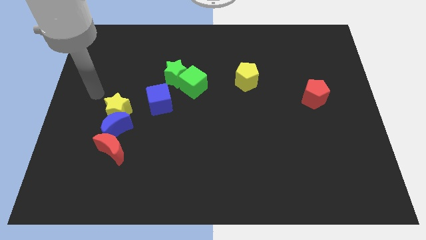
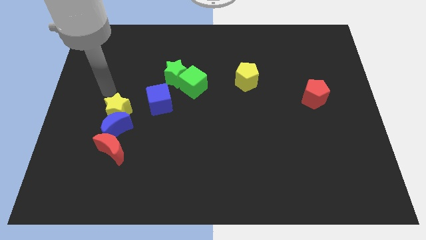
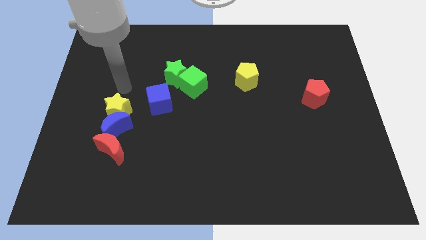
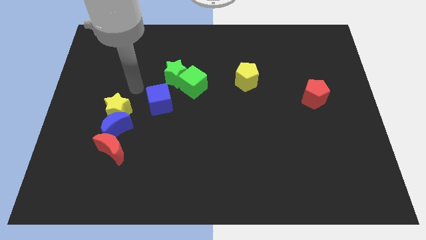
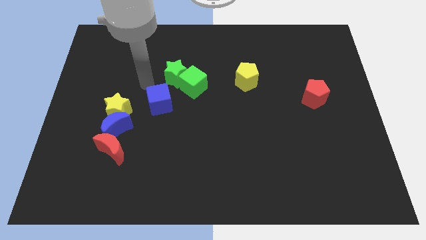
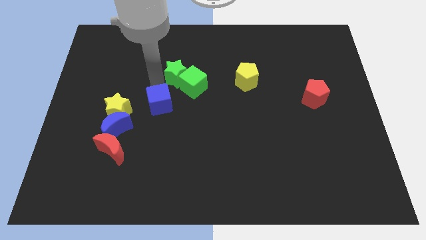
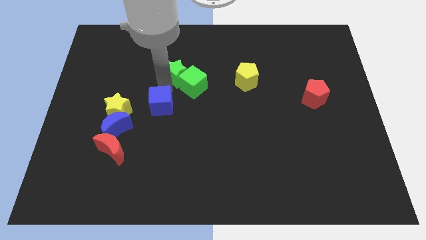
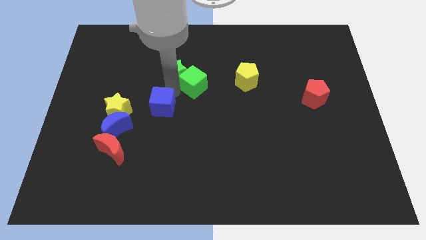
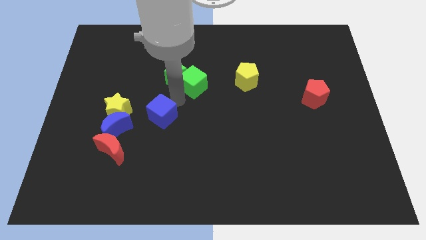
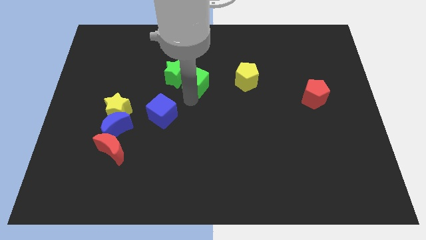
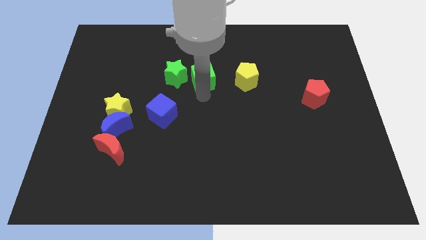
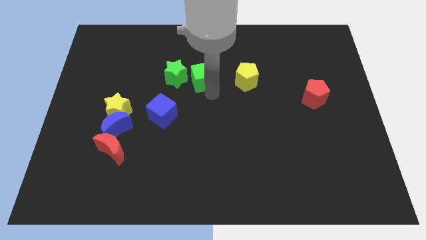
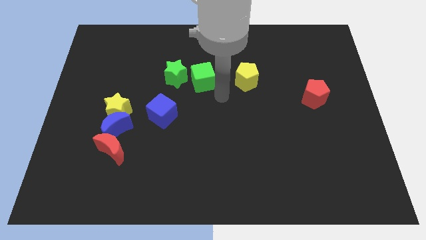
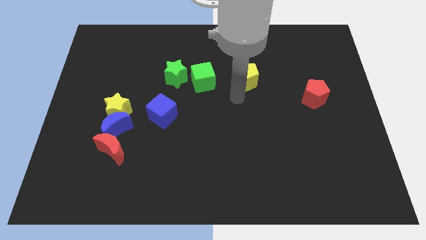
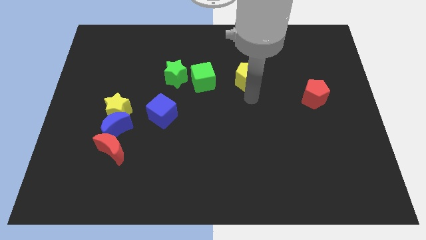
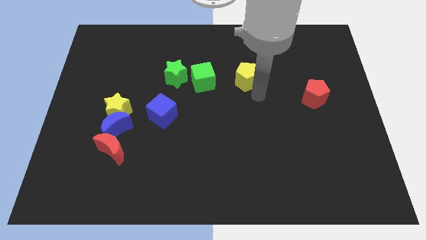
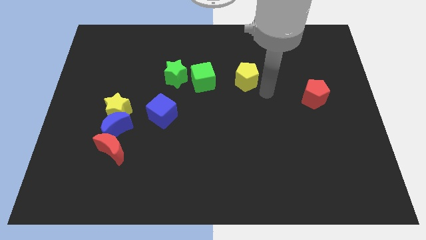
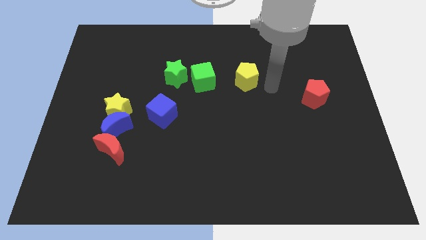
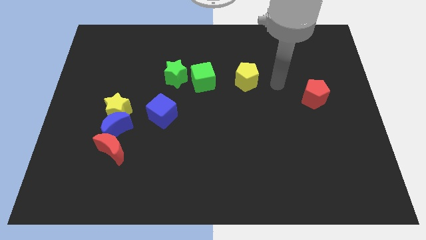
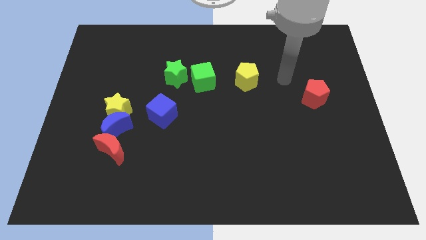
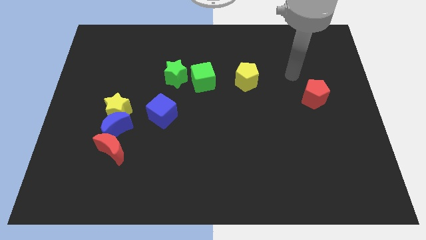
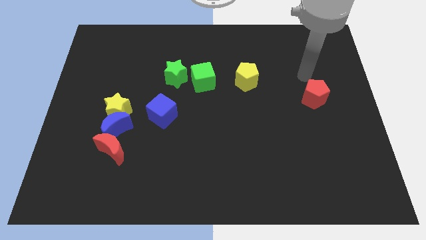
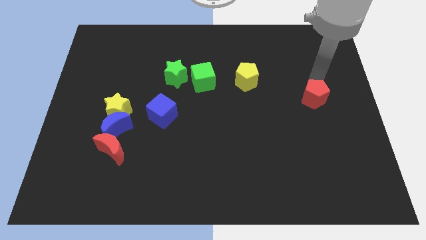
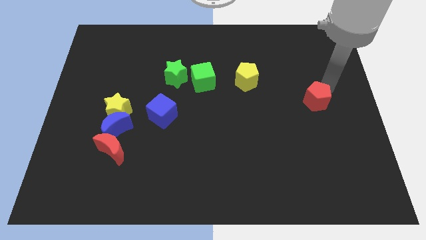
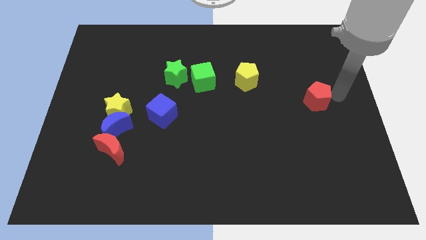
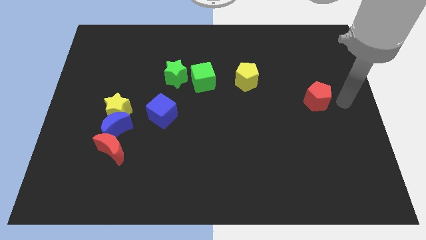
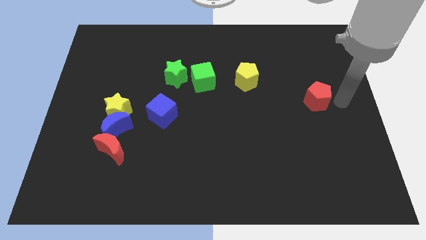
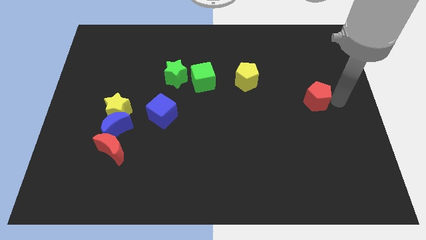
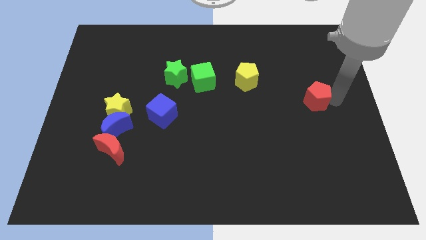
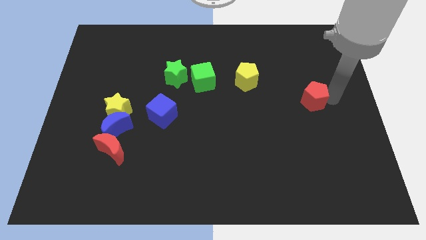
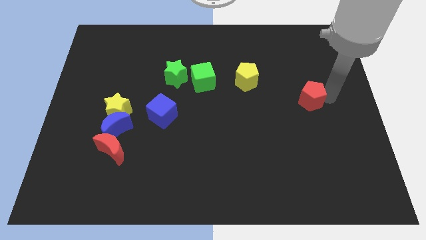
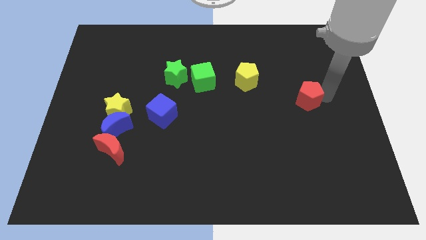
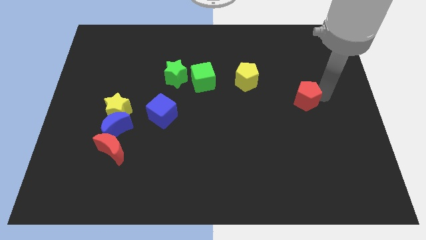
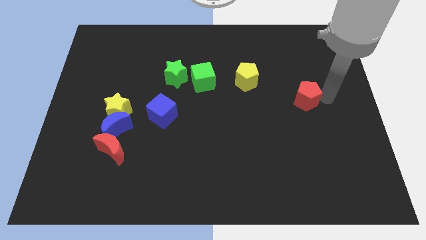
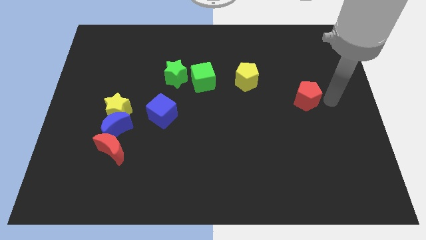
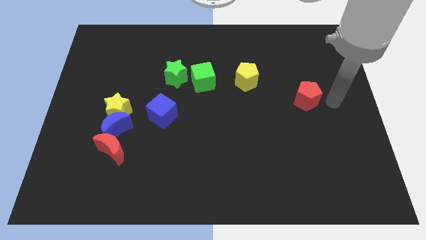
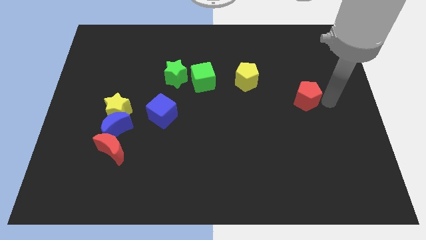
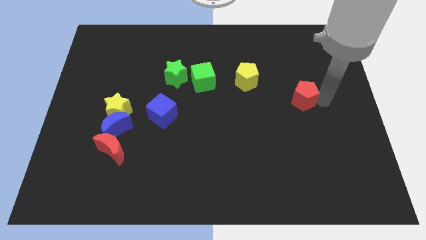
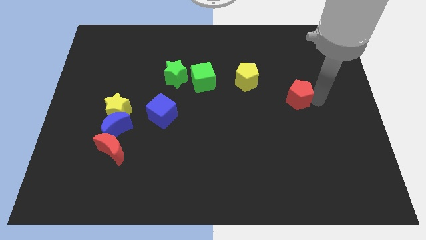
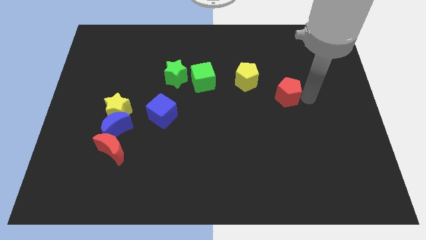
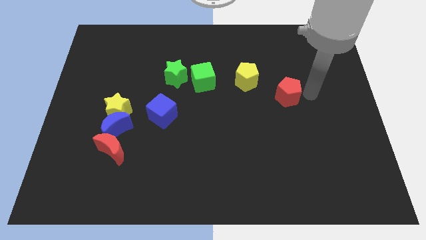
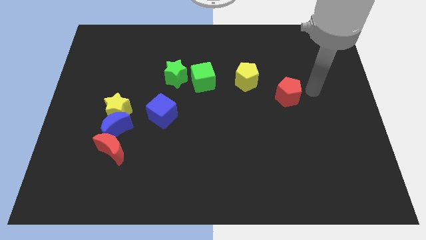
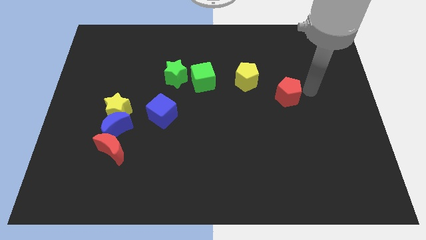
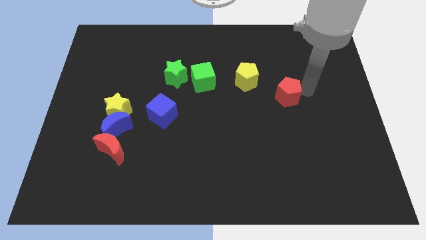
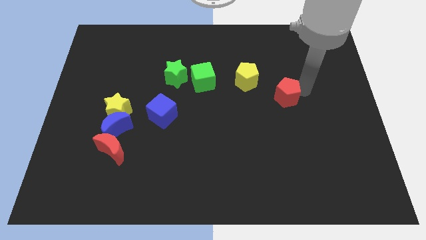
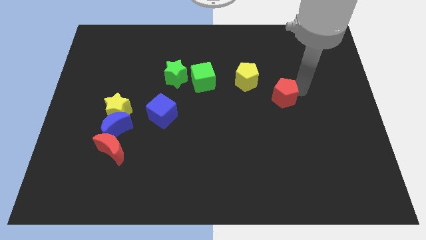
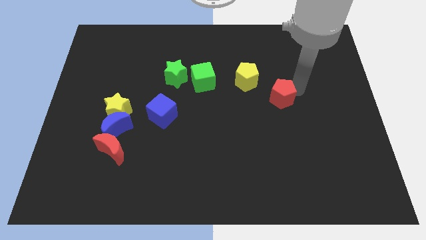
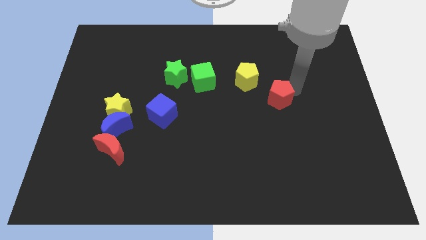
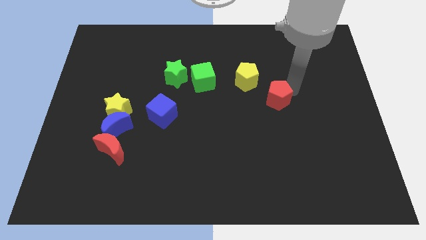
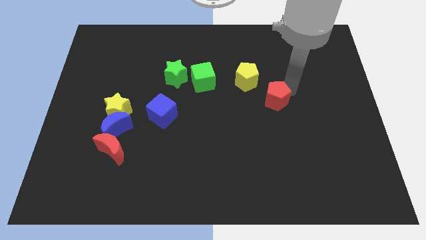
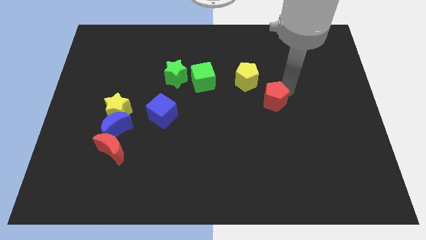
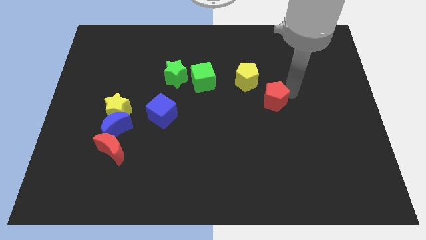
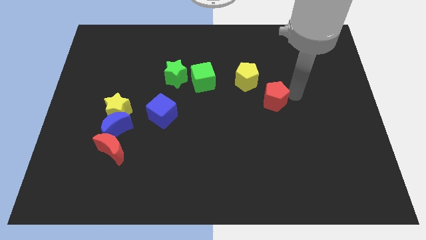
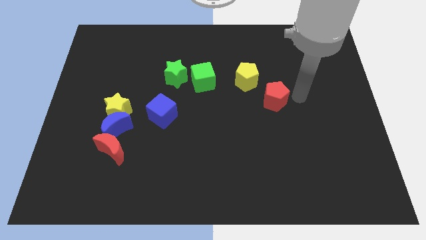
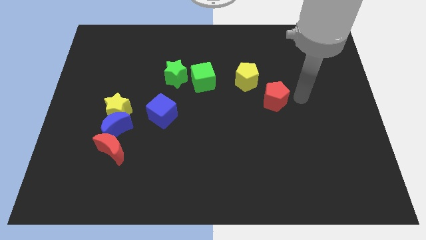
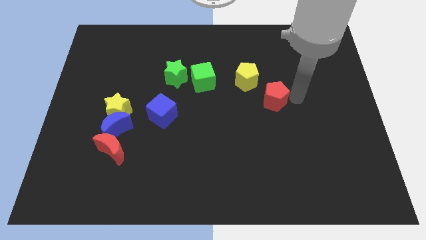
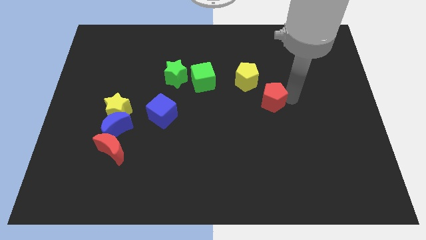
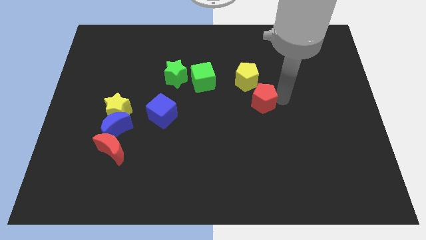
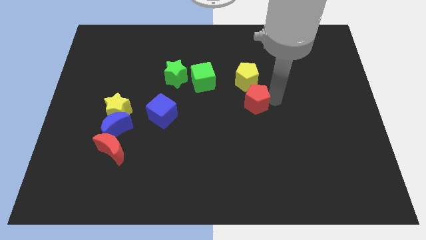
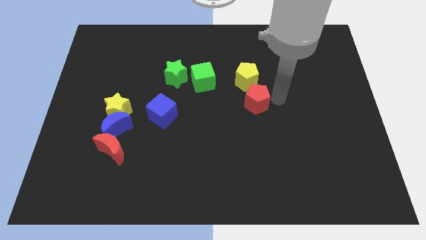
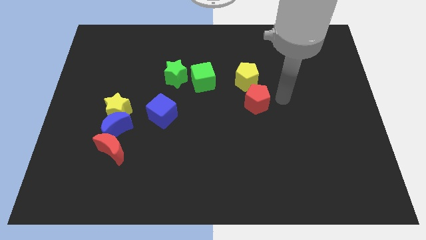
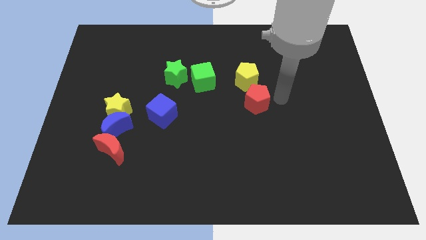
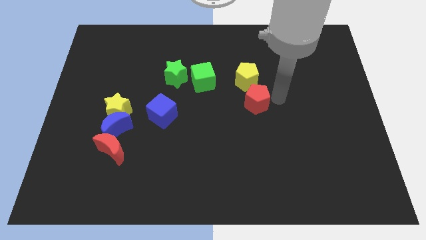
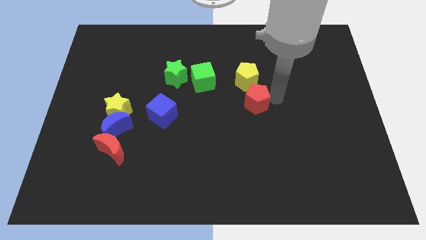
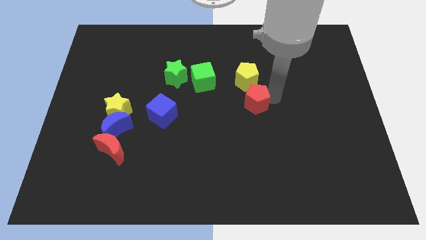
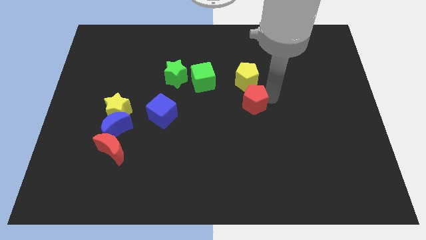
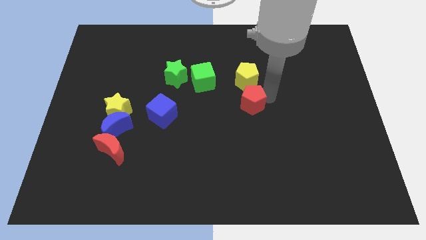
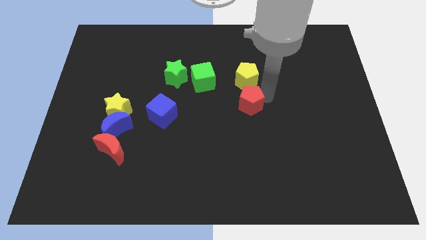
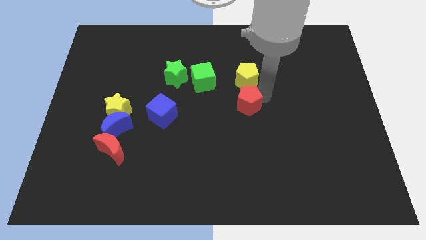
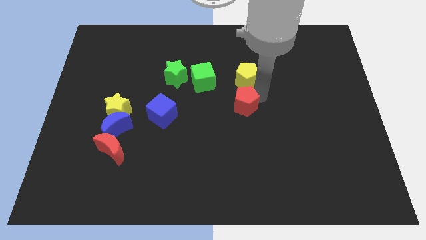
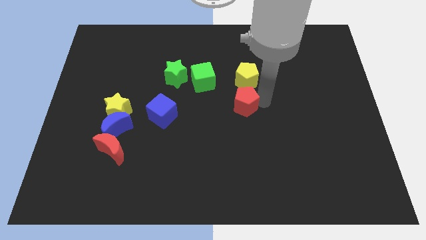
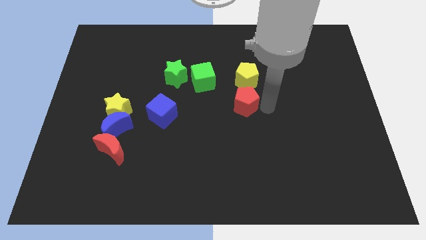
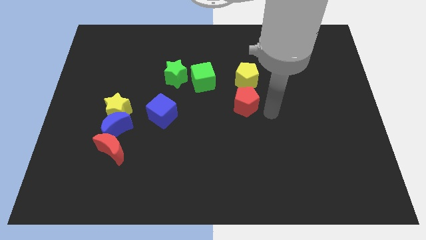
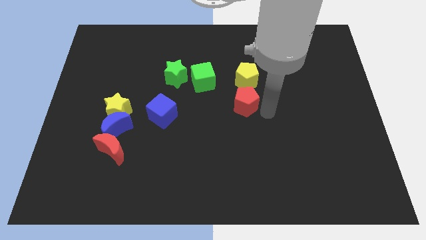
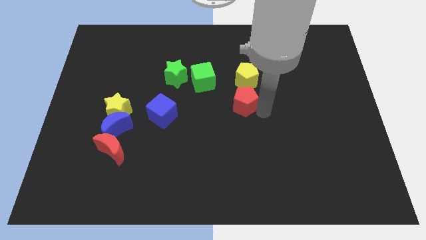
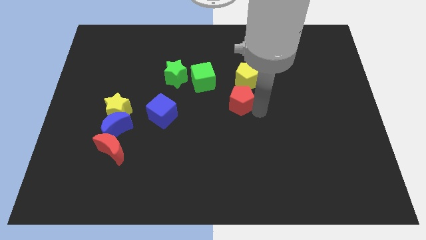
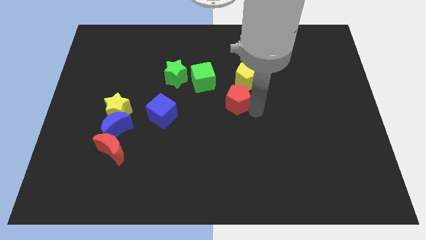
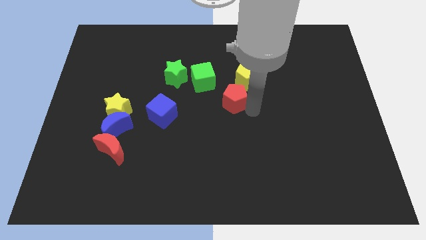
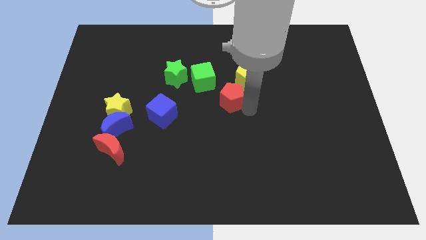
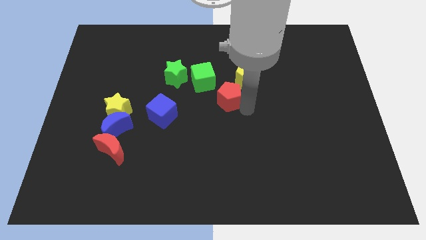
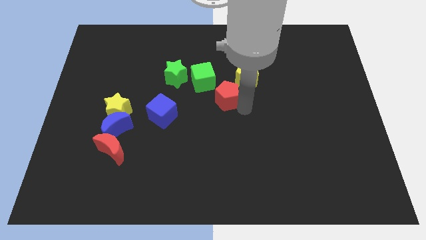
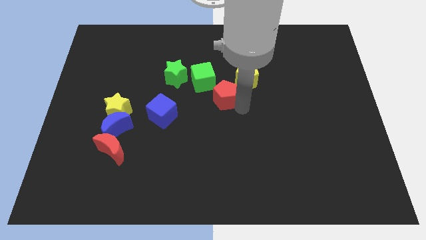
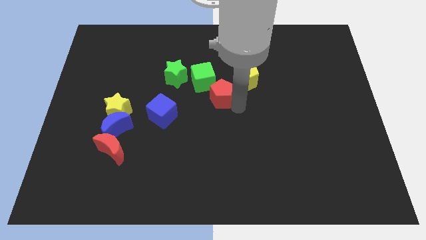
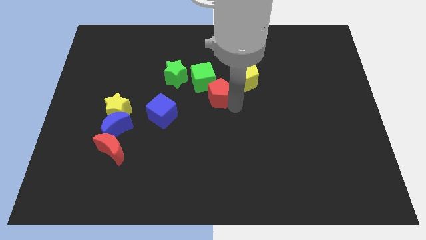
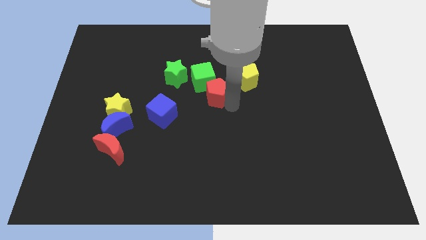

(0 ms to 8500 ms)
slide the red pentagon next to the green cube
